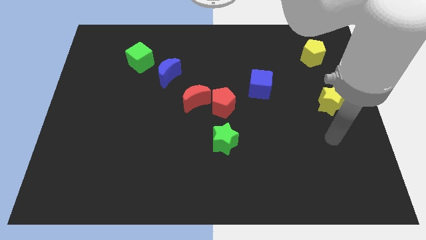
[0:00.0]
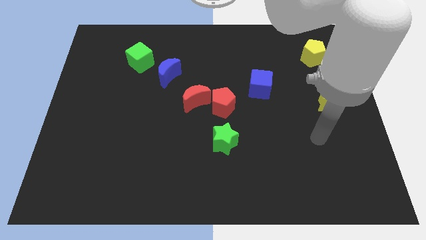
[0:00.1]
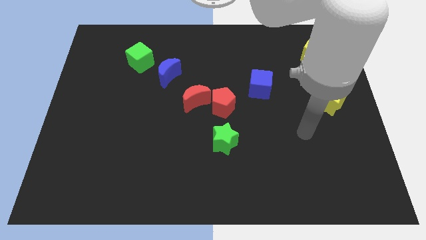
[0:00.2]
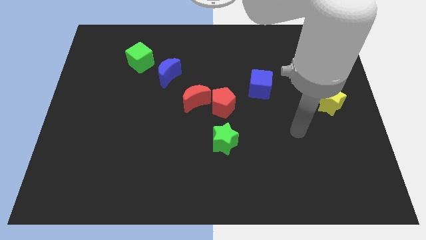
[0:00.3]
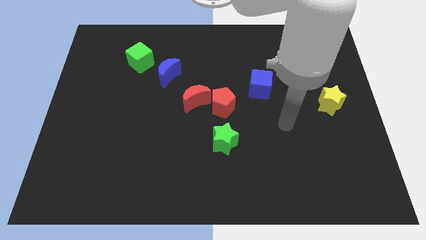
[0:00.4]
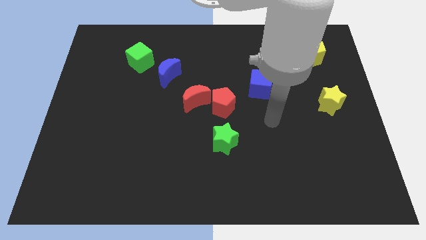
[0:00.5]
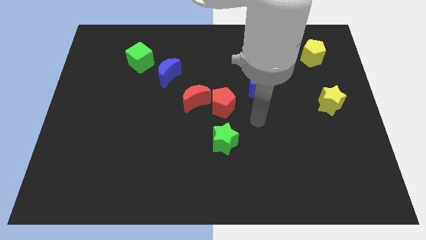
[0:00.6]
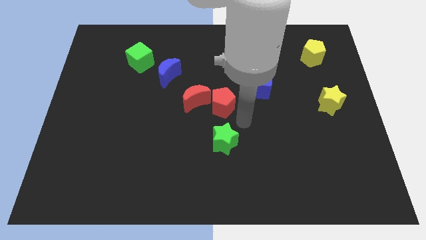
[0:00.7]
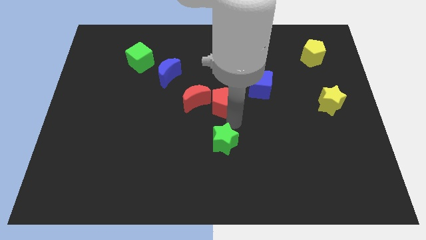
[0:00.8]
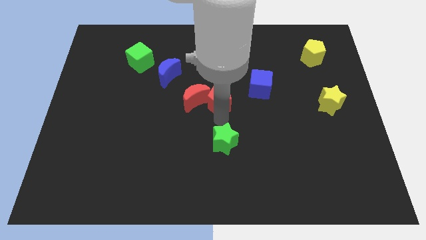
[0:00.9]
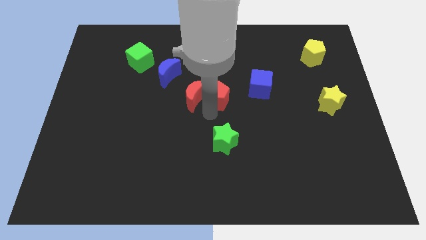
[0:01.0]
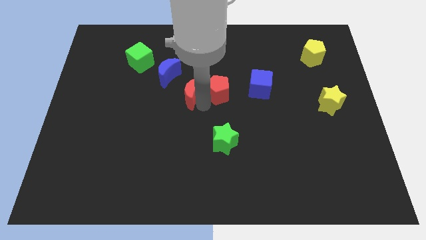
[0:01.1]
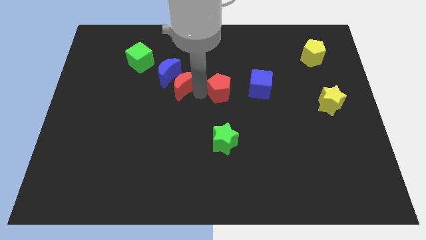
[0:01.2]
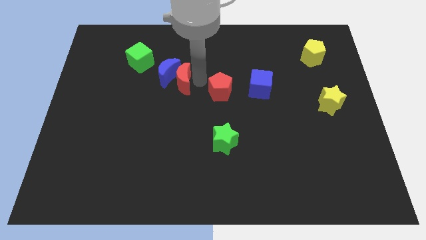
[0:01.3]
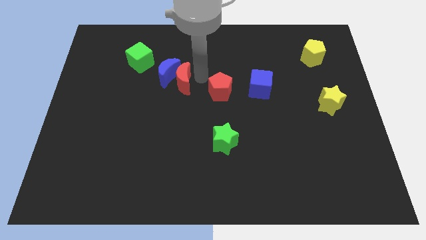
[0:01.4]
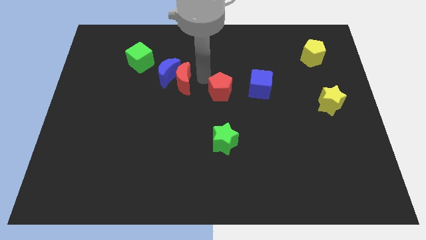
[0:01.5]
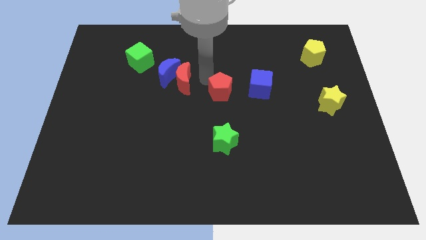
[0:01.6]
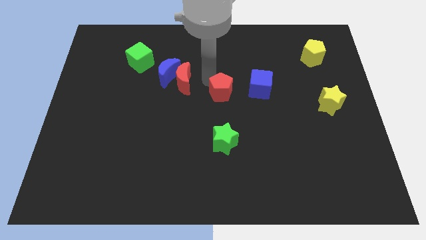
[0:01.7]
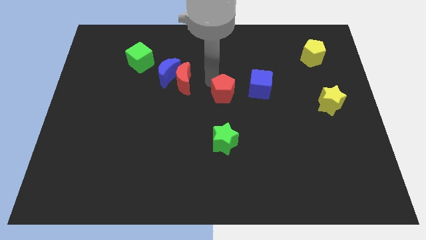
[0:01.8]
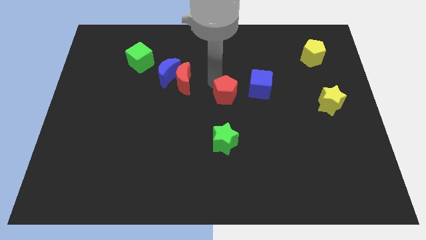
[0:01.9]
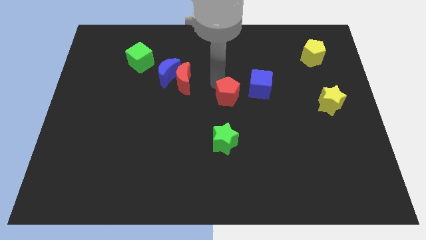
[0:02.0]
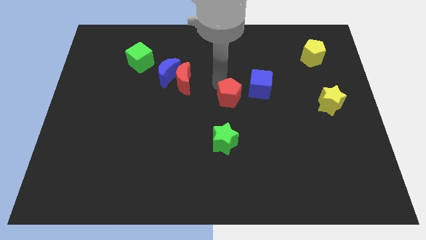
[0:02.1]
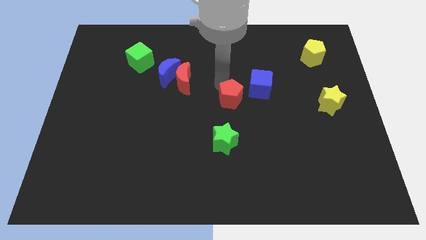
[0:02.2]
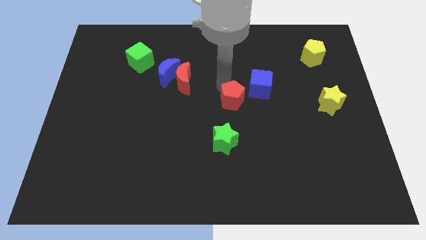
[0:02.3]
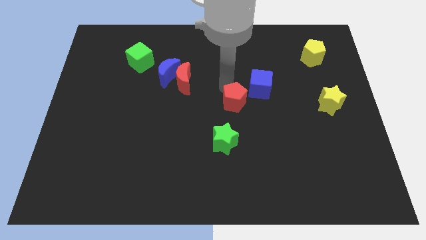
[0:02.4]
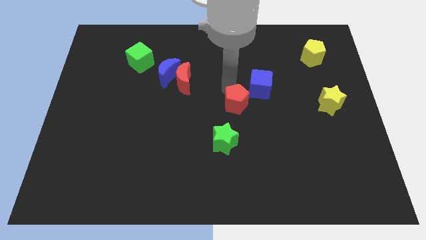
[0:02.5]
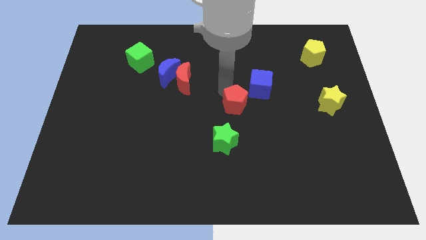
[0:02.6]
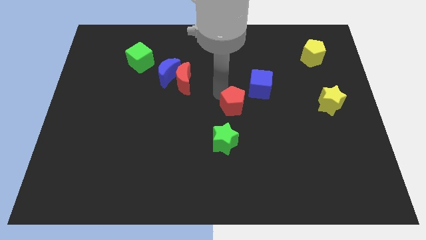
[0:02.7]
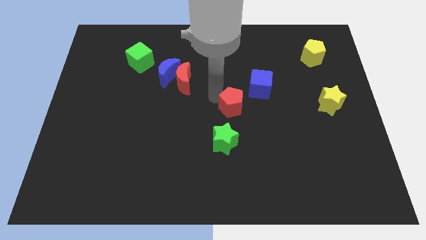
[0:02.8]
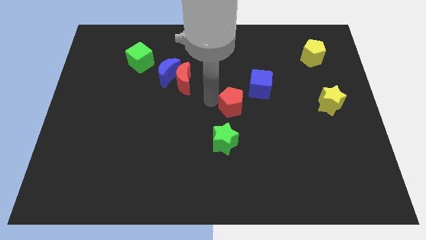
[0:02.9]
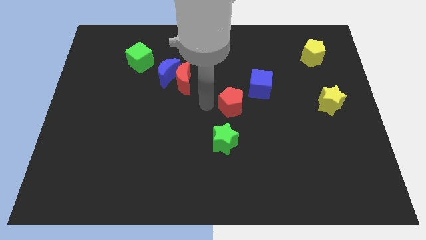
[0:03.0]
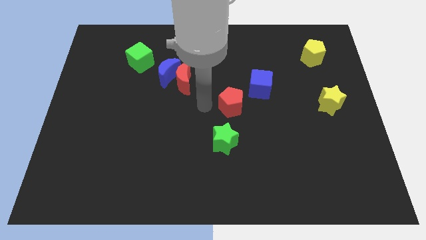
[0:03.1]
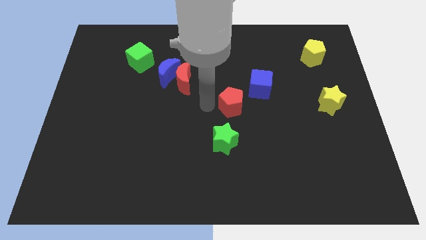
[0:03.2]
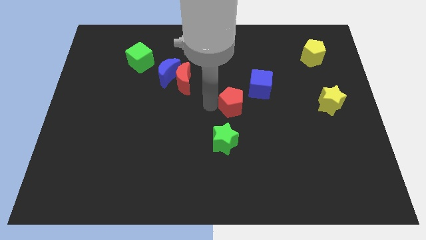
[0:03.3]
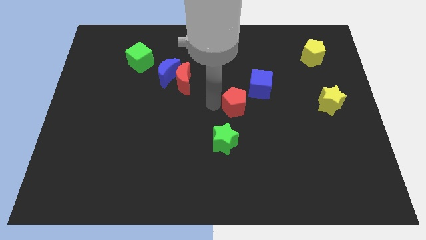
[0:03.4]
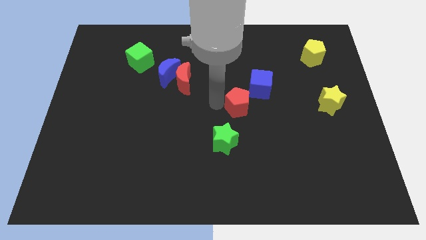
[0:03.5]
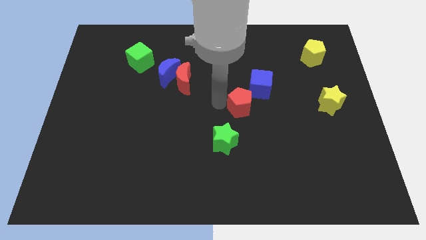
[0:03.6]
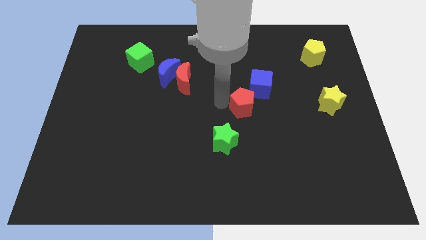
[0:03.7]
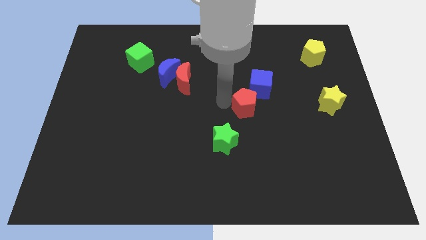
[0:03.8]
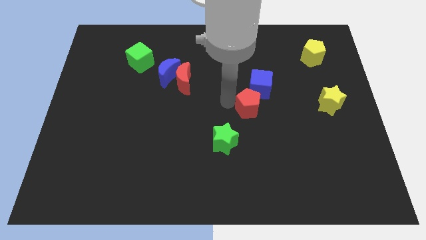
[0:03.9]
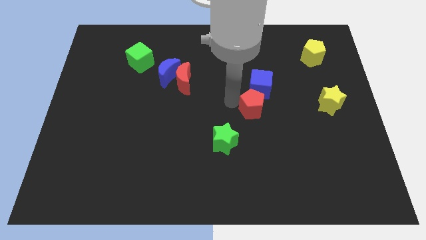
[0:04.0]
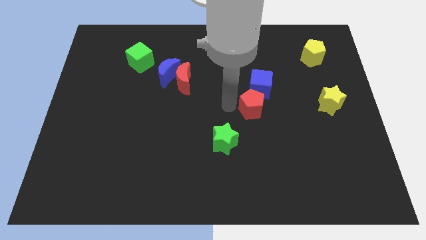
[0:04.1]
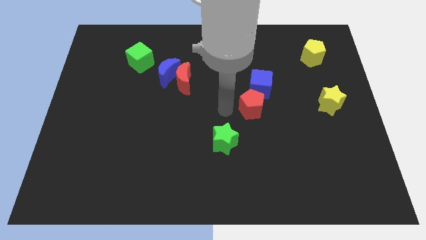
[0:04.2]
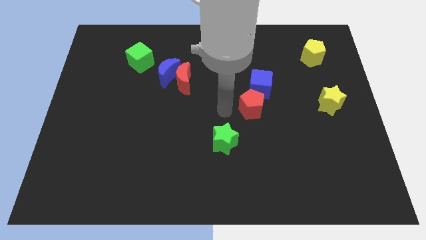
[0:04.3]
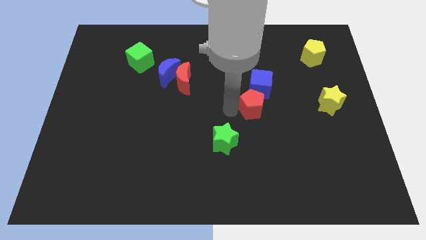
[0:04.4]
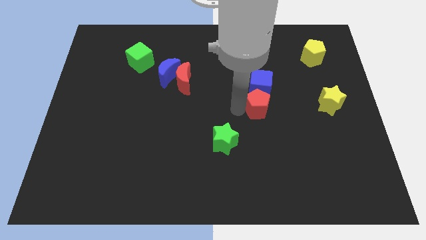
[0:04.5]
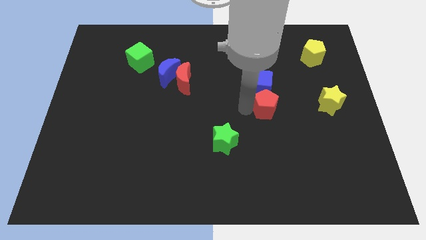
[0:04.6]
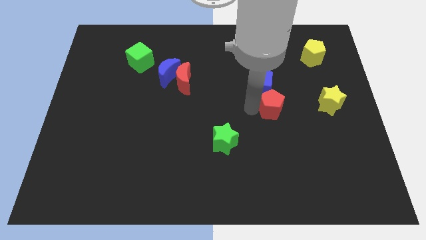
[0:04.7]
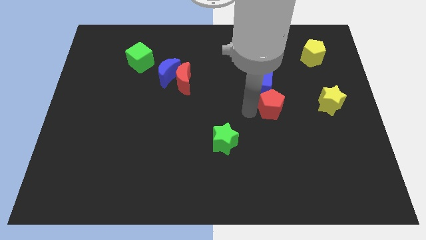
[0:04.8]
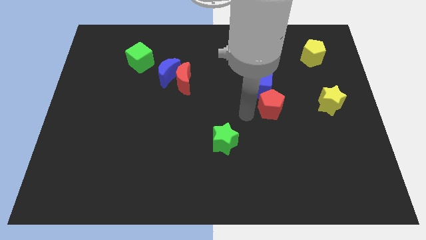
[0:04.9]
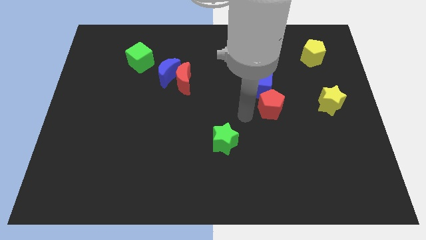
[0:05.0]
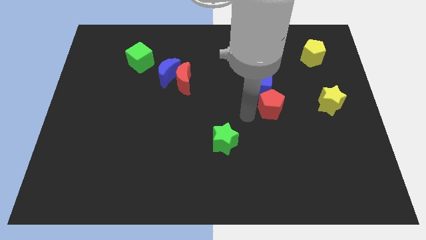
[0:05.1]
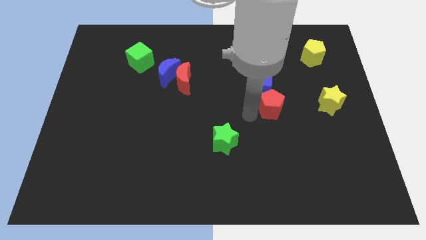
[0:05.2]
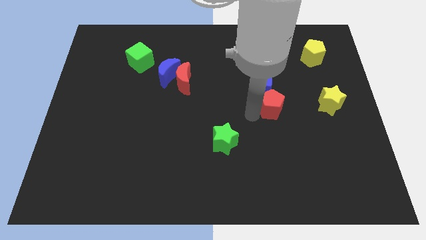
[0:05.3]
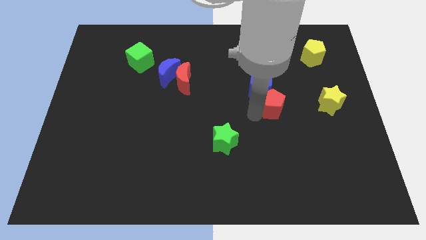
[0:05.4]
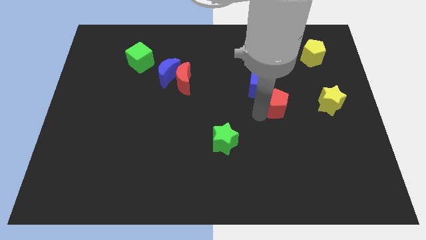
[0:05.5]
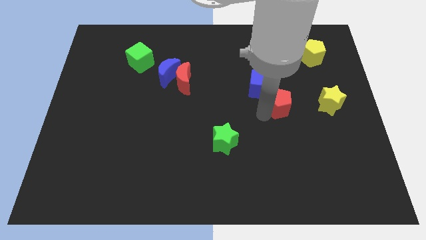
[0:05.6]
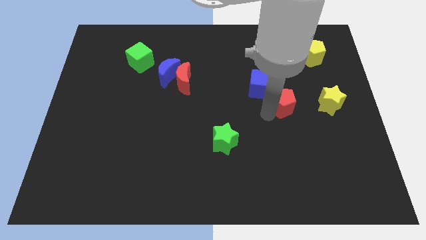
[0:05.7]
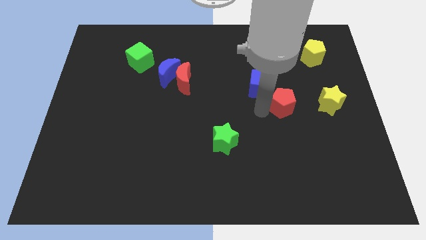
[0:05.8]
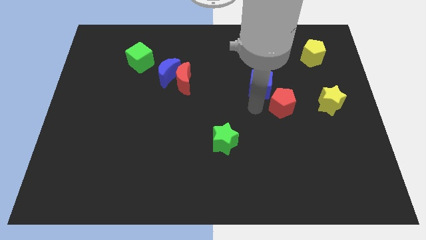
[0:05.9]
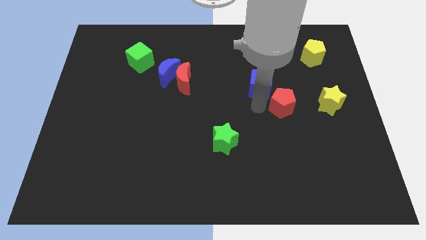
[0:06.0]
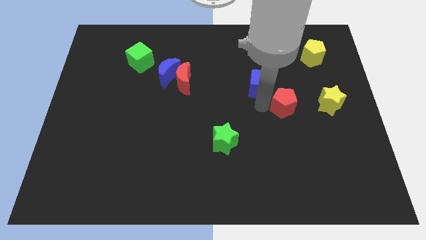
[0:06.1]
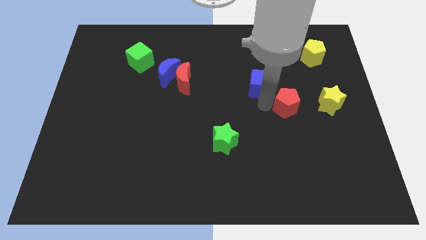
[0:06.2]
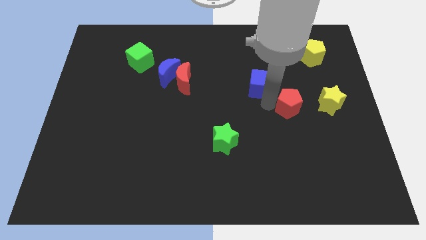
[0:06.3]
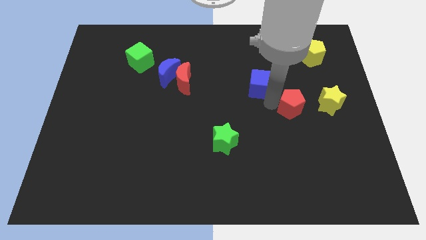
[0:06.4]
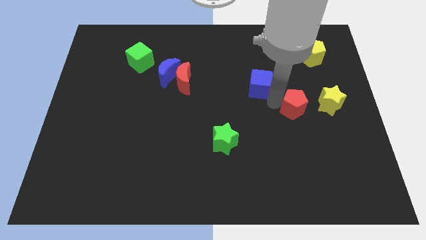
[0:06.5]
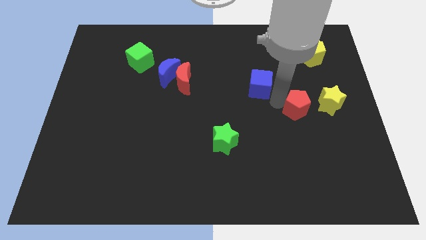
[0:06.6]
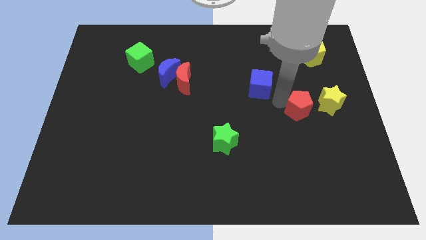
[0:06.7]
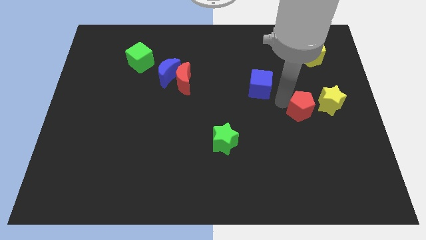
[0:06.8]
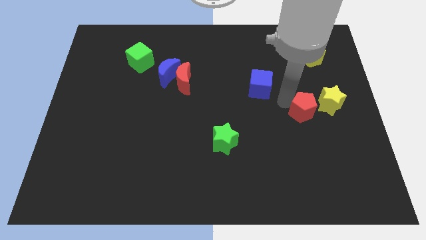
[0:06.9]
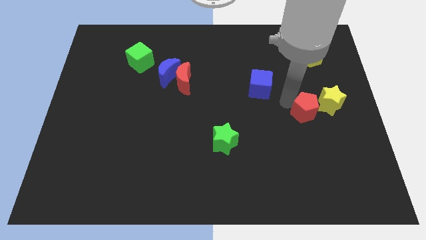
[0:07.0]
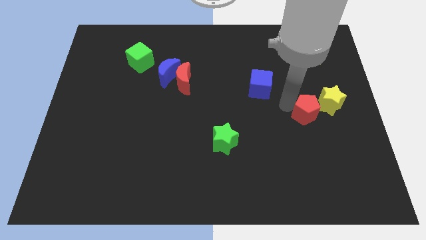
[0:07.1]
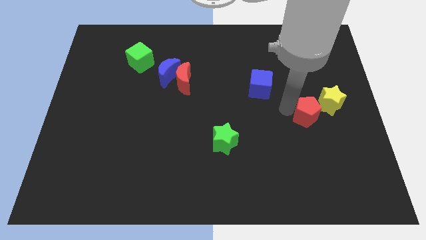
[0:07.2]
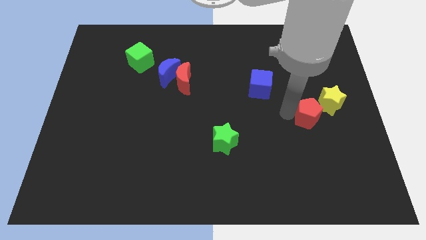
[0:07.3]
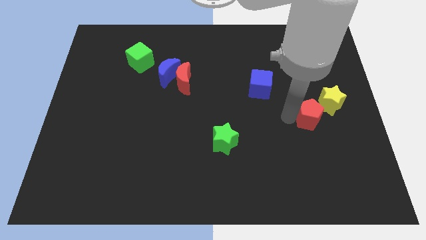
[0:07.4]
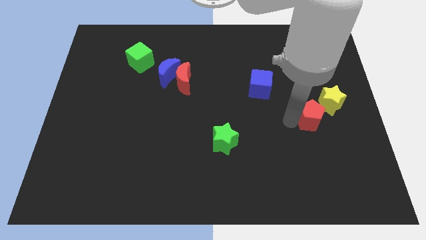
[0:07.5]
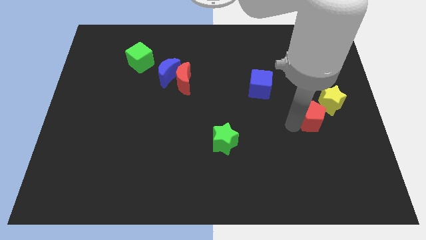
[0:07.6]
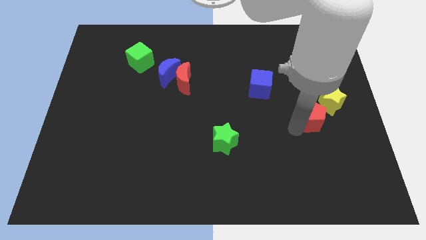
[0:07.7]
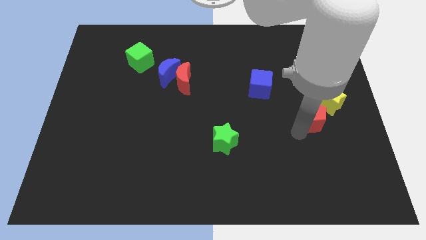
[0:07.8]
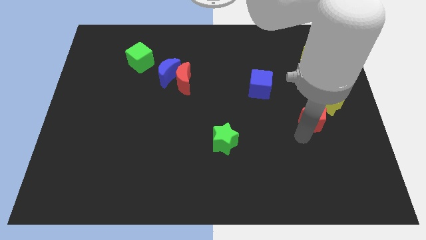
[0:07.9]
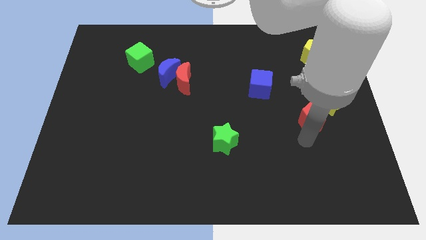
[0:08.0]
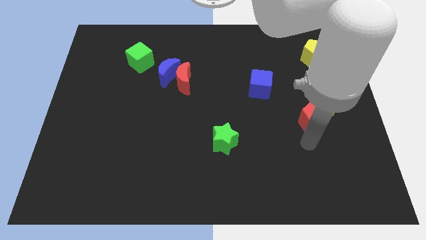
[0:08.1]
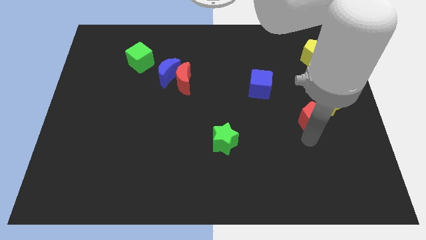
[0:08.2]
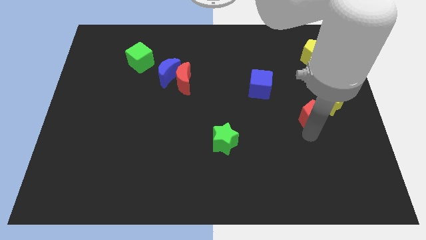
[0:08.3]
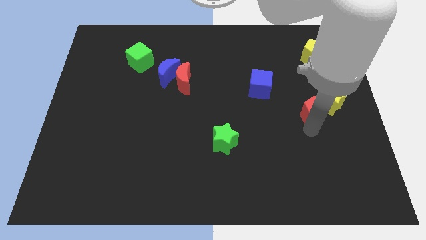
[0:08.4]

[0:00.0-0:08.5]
put the red pentagon to the yellow star
